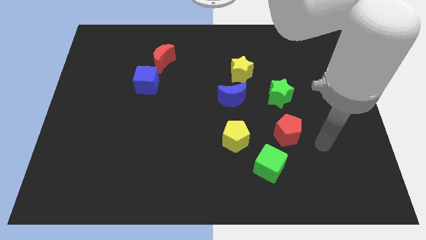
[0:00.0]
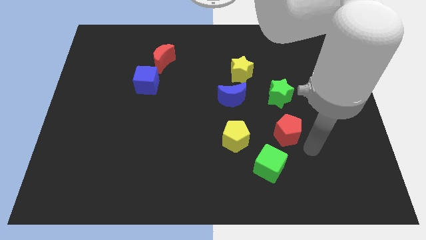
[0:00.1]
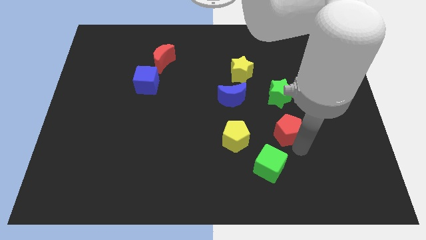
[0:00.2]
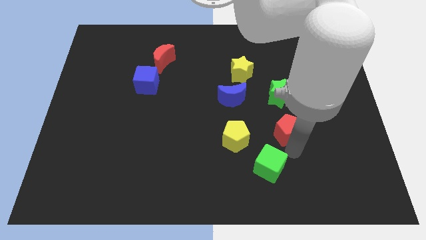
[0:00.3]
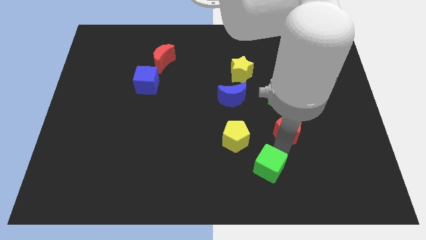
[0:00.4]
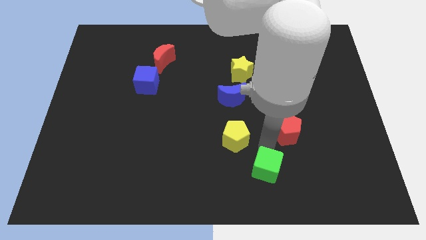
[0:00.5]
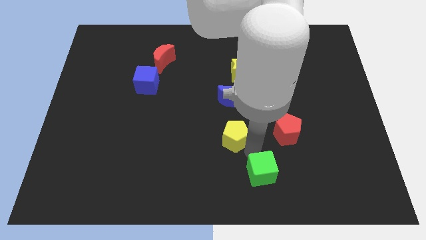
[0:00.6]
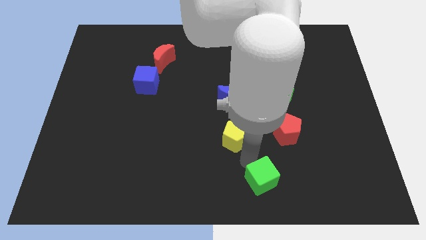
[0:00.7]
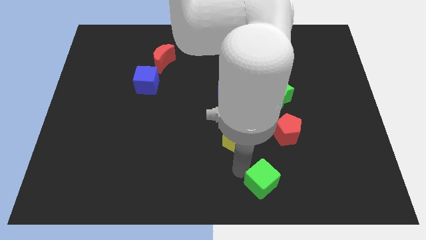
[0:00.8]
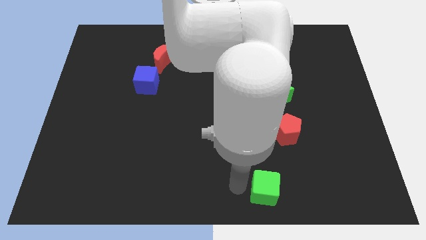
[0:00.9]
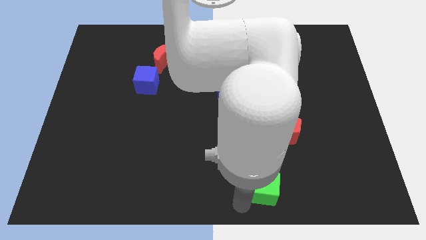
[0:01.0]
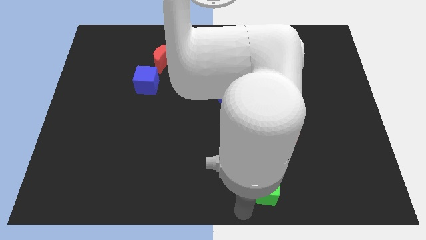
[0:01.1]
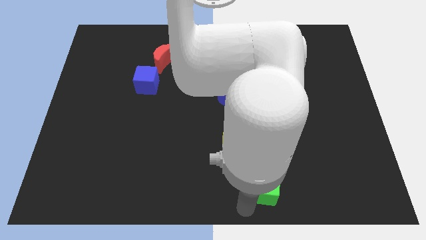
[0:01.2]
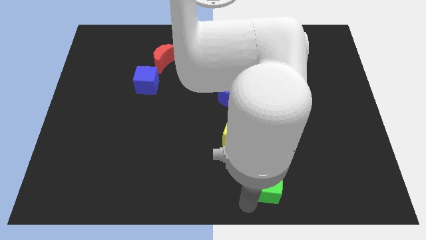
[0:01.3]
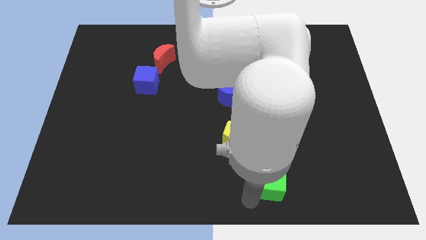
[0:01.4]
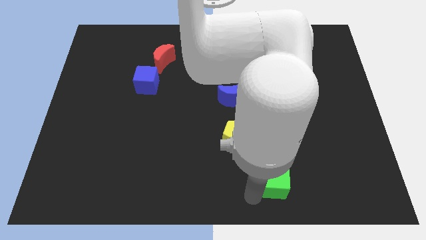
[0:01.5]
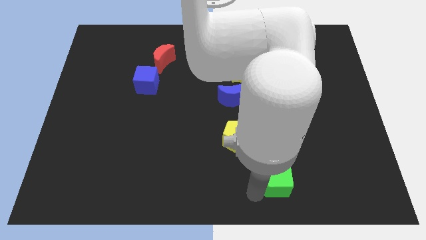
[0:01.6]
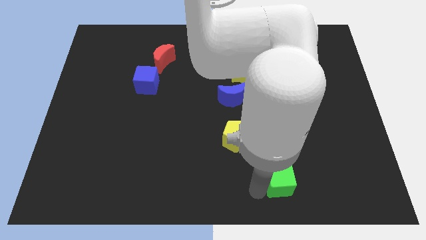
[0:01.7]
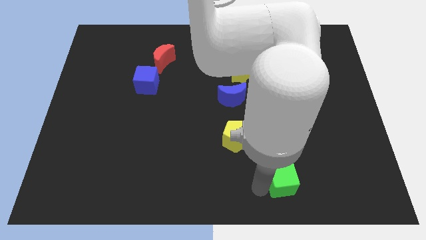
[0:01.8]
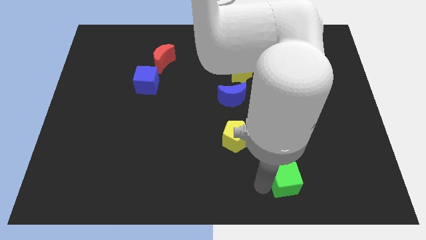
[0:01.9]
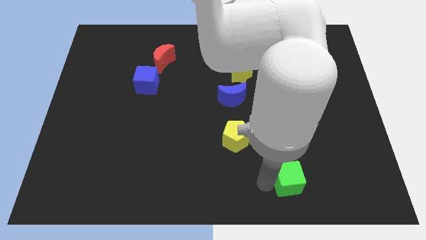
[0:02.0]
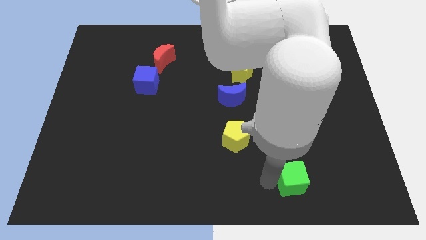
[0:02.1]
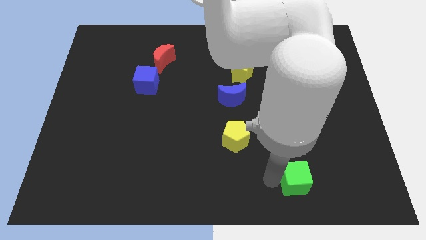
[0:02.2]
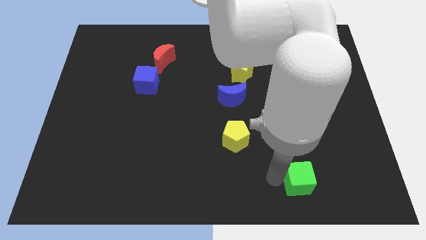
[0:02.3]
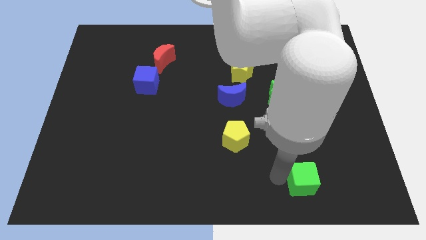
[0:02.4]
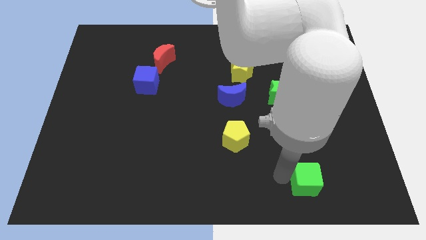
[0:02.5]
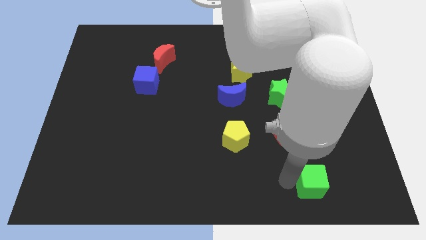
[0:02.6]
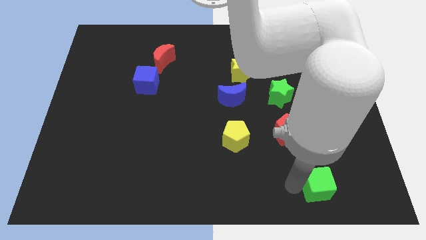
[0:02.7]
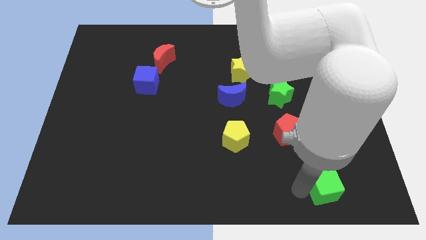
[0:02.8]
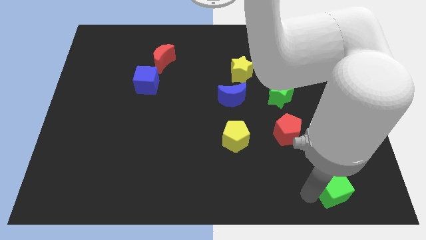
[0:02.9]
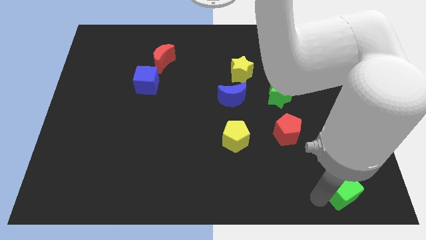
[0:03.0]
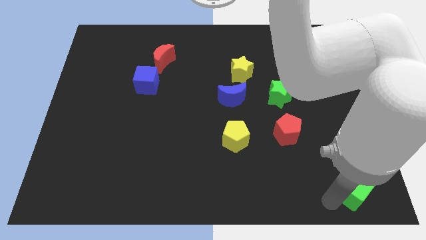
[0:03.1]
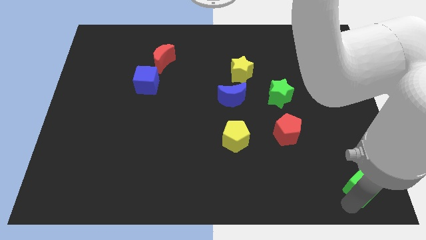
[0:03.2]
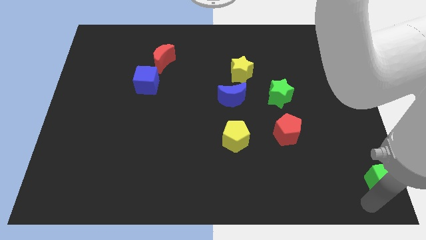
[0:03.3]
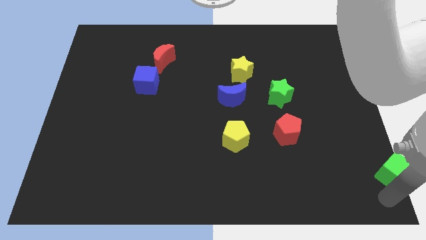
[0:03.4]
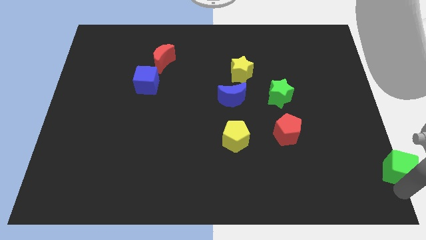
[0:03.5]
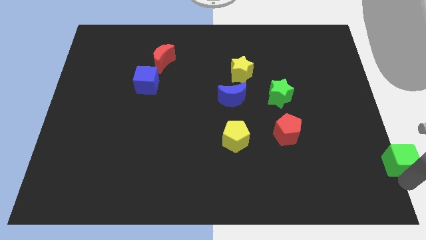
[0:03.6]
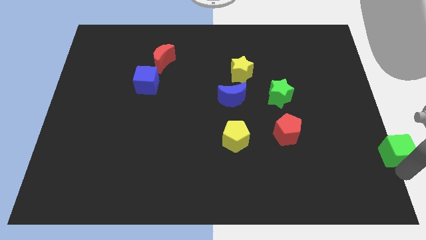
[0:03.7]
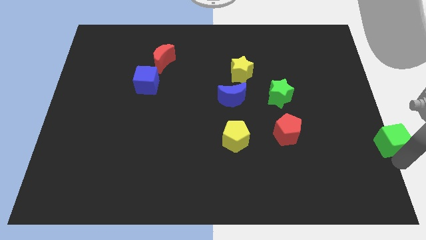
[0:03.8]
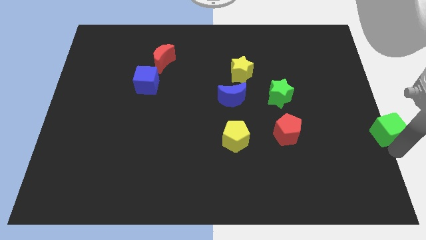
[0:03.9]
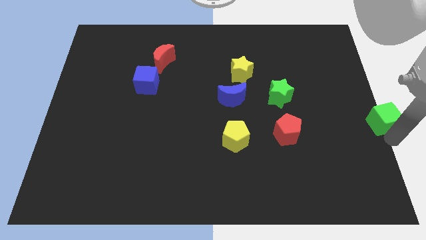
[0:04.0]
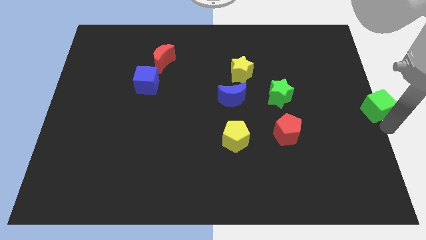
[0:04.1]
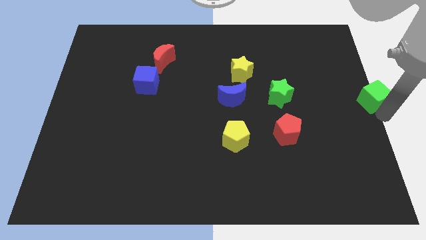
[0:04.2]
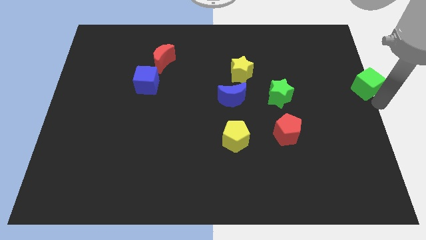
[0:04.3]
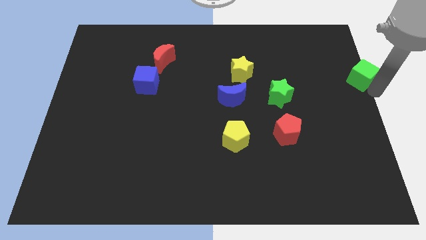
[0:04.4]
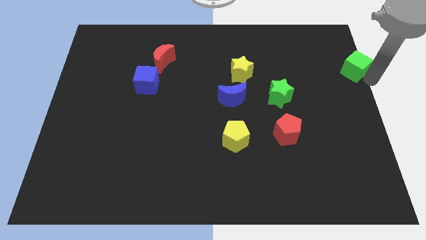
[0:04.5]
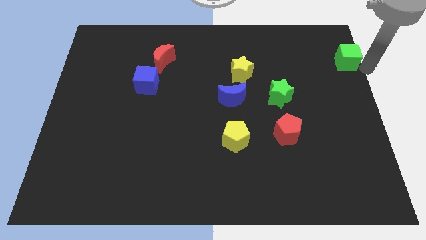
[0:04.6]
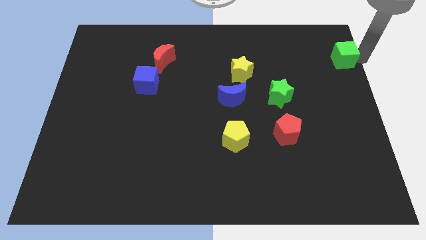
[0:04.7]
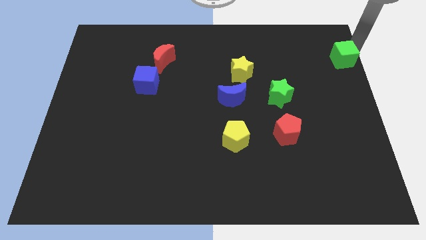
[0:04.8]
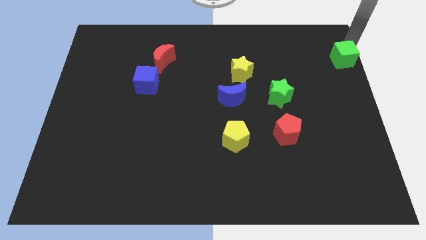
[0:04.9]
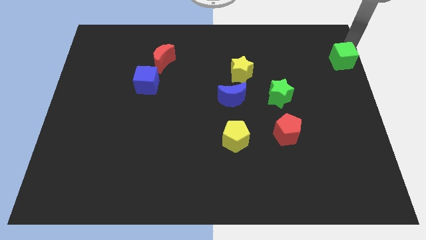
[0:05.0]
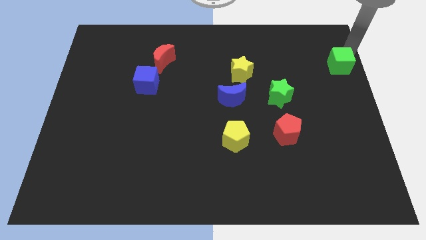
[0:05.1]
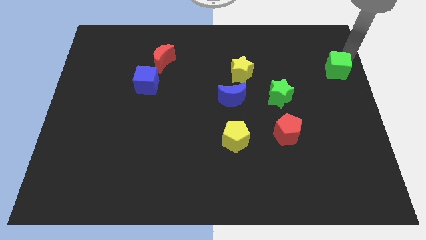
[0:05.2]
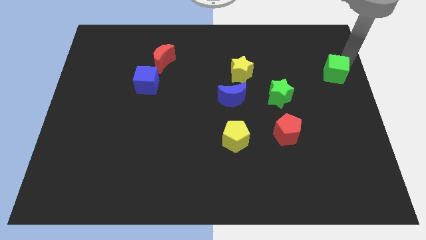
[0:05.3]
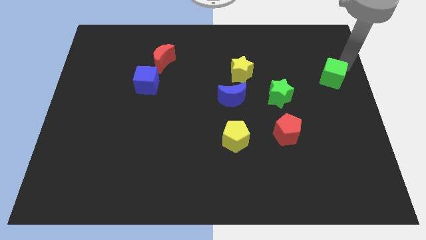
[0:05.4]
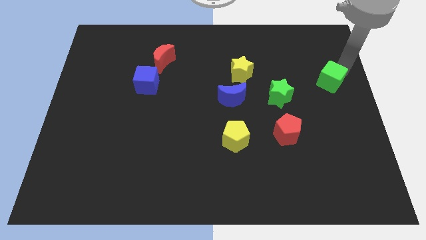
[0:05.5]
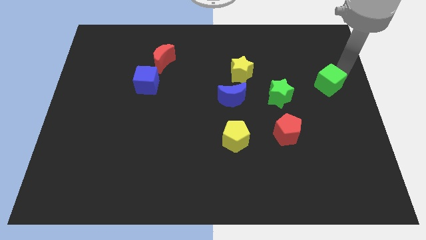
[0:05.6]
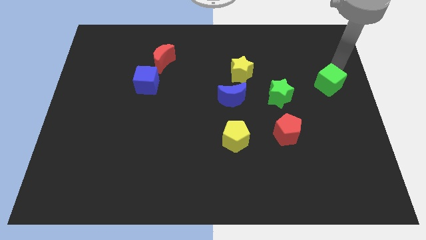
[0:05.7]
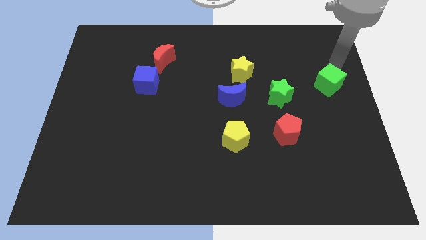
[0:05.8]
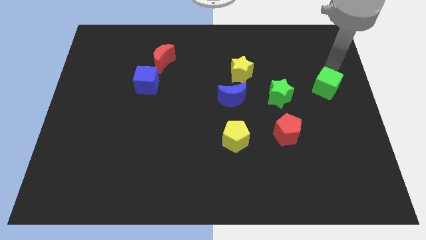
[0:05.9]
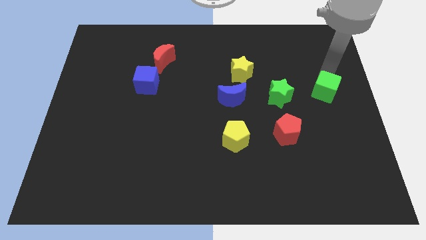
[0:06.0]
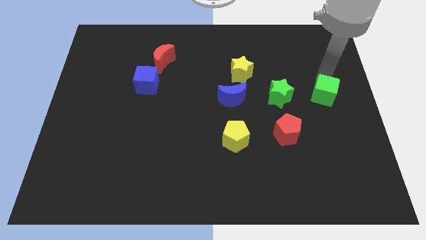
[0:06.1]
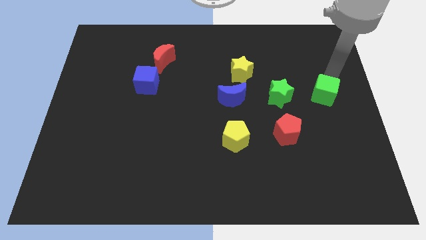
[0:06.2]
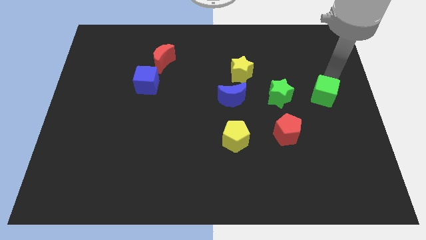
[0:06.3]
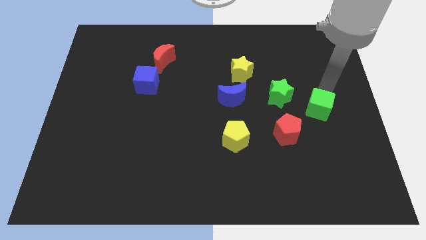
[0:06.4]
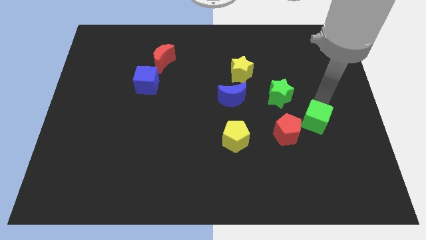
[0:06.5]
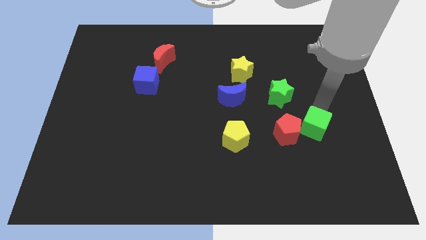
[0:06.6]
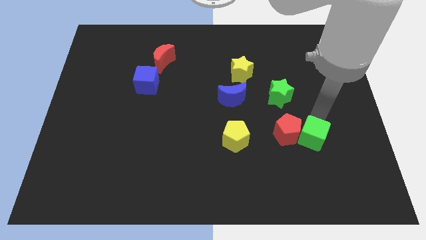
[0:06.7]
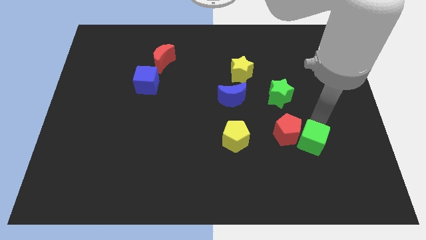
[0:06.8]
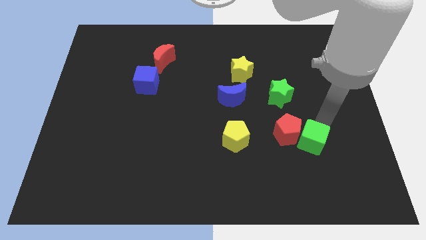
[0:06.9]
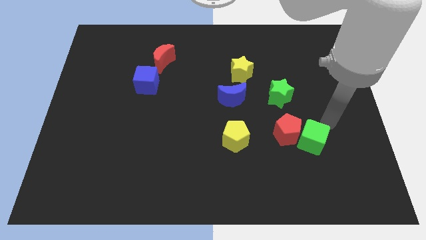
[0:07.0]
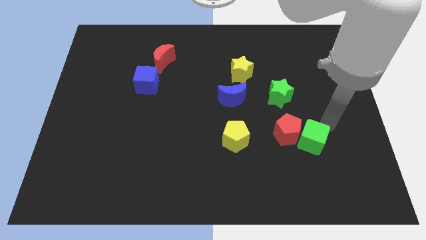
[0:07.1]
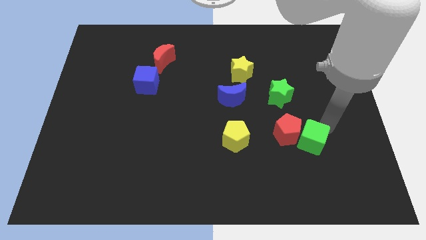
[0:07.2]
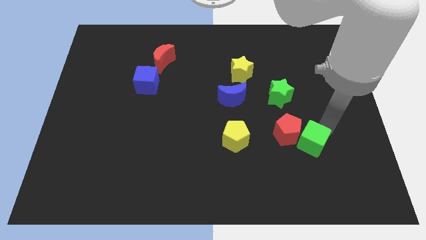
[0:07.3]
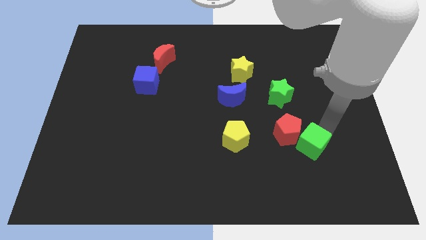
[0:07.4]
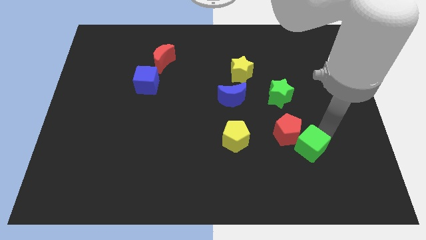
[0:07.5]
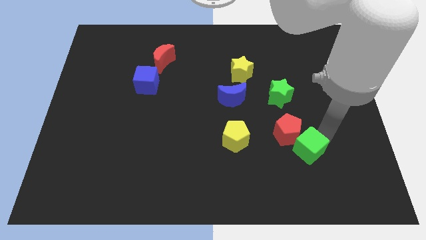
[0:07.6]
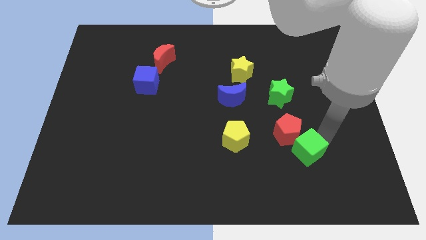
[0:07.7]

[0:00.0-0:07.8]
put the green cube just right of the yellow pentagon
